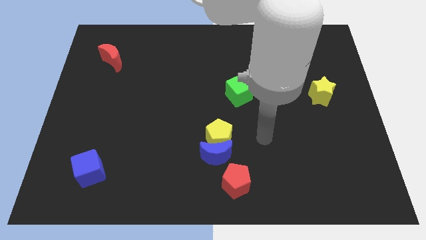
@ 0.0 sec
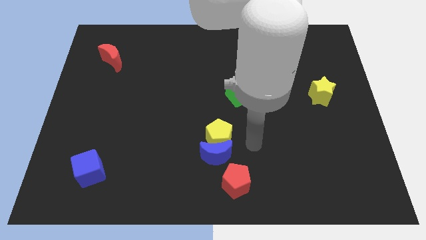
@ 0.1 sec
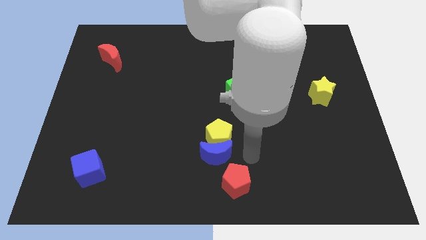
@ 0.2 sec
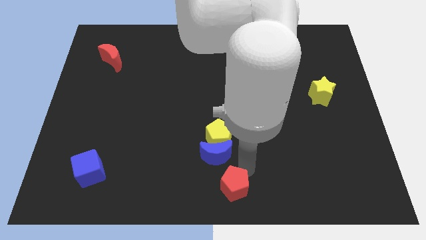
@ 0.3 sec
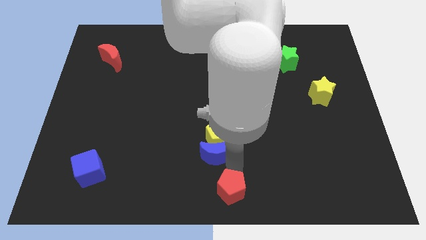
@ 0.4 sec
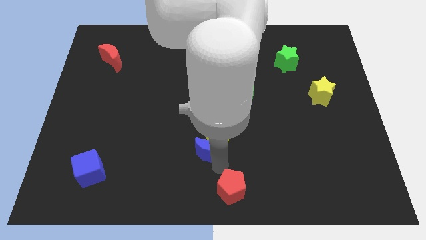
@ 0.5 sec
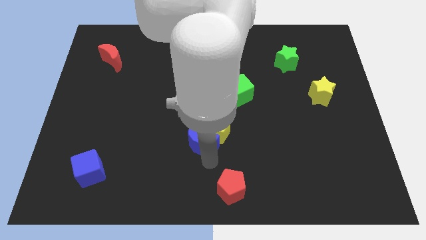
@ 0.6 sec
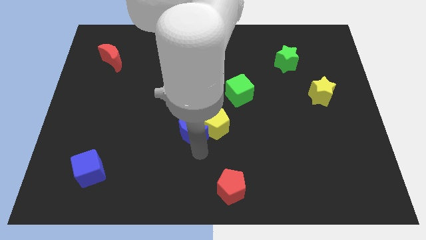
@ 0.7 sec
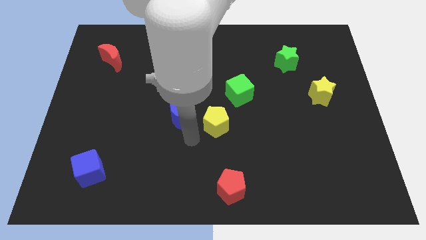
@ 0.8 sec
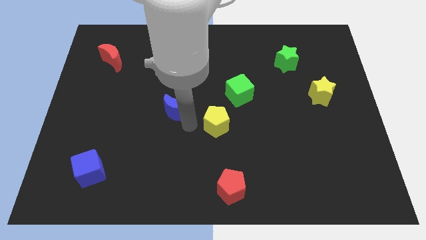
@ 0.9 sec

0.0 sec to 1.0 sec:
pull the yellow pentagon apart from the blue moon

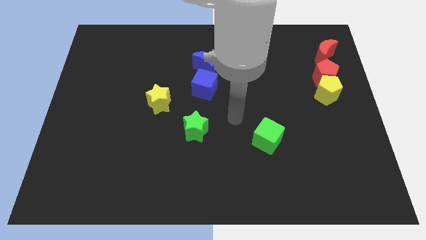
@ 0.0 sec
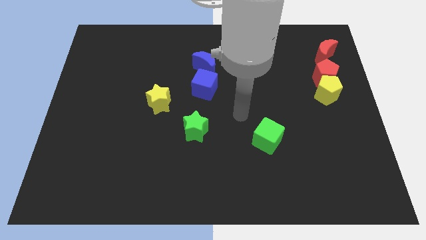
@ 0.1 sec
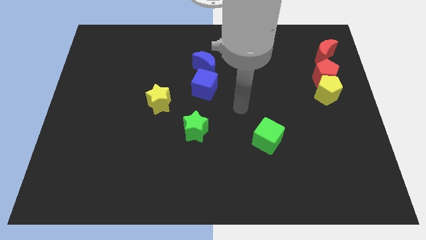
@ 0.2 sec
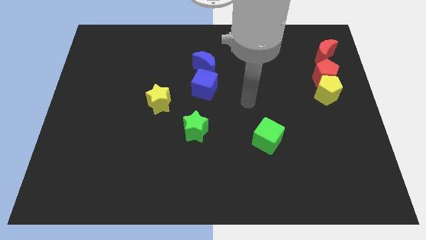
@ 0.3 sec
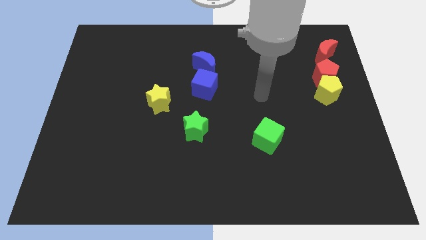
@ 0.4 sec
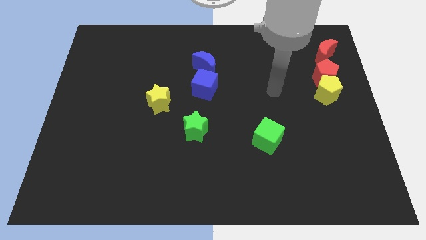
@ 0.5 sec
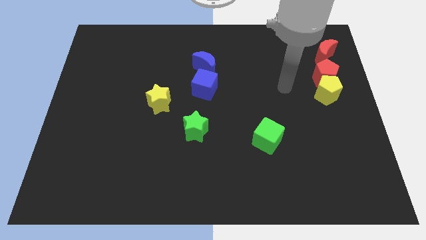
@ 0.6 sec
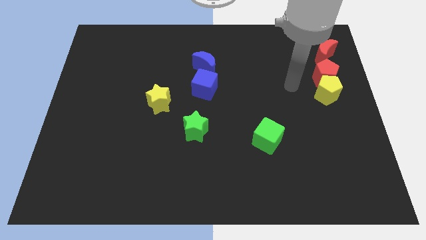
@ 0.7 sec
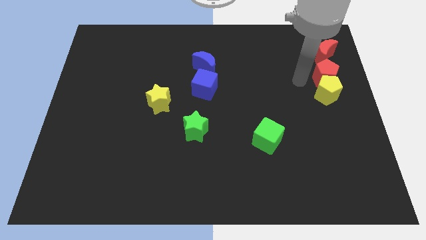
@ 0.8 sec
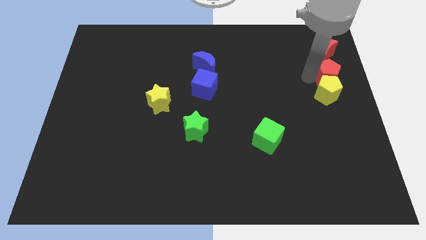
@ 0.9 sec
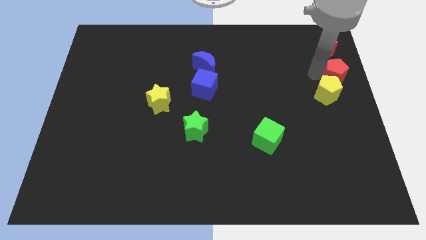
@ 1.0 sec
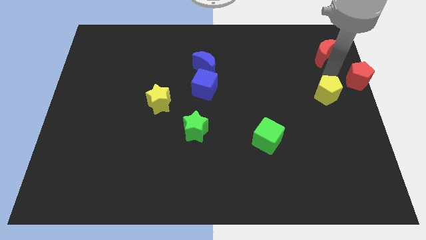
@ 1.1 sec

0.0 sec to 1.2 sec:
separate the yellow pentagon from the red pentagon

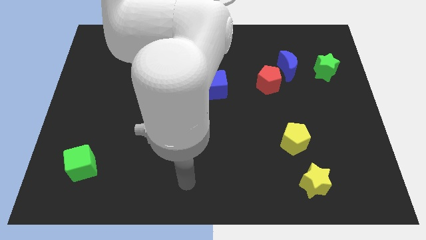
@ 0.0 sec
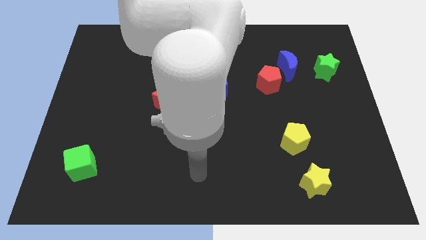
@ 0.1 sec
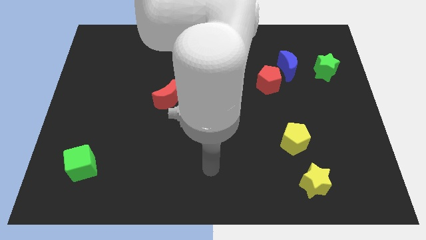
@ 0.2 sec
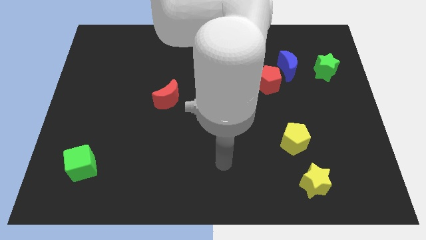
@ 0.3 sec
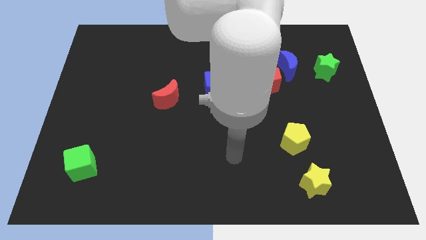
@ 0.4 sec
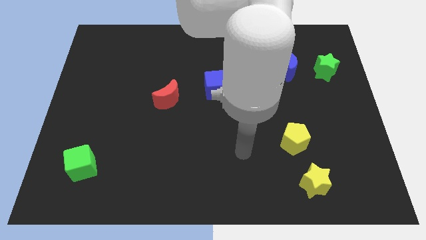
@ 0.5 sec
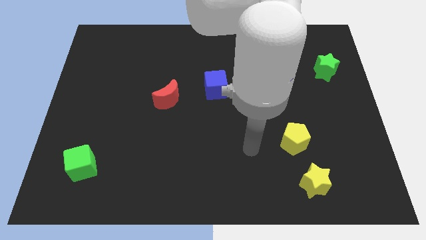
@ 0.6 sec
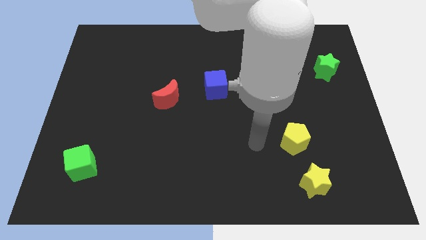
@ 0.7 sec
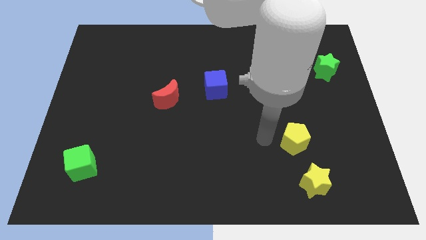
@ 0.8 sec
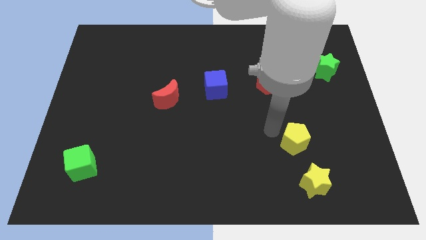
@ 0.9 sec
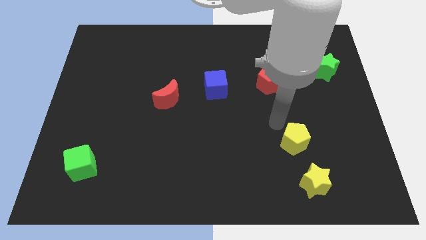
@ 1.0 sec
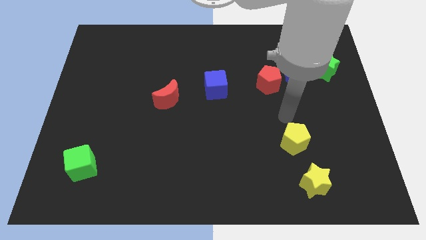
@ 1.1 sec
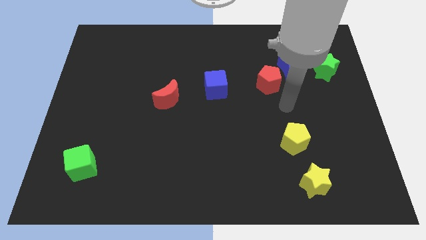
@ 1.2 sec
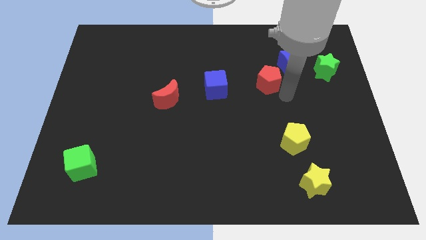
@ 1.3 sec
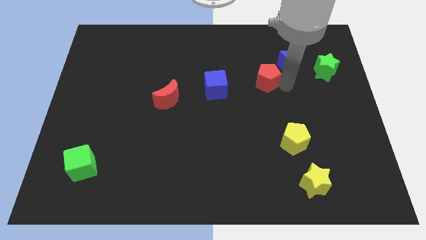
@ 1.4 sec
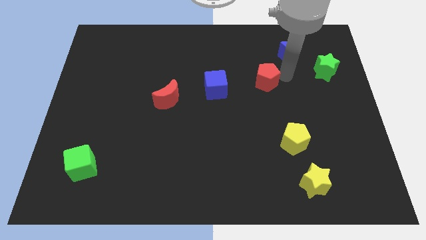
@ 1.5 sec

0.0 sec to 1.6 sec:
move the red pentagon away from the blue moon

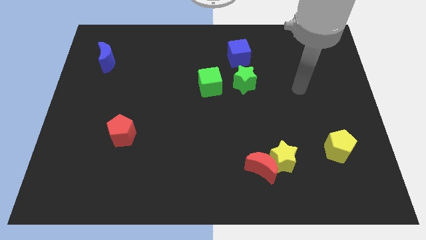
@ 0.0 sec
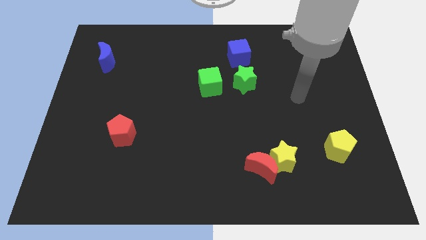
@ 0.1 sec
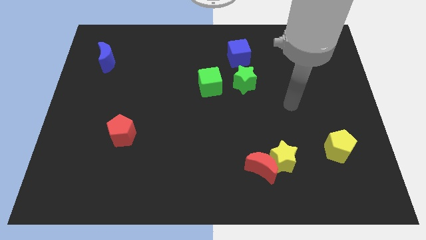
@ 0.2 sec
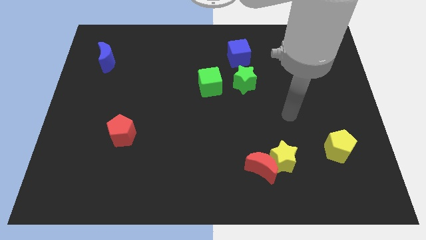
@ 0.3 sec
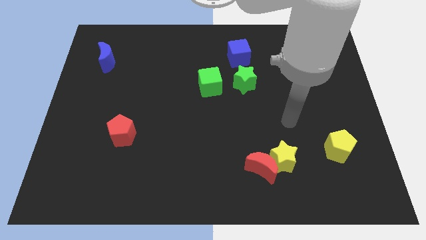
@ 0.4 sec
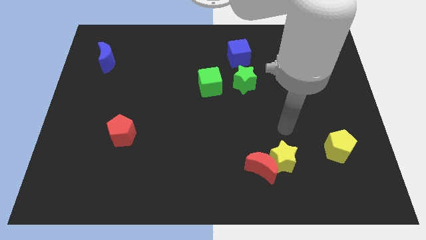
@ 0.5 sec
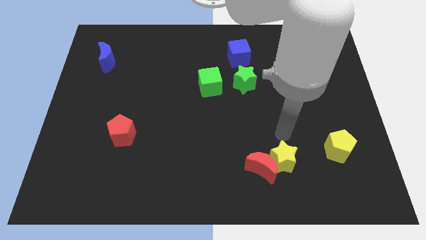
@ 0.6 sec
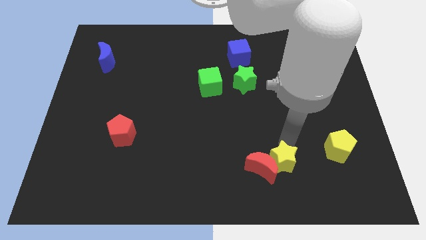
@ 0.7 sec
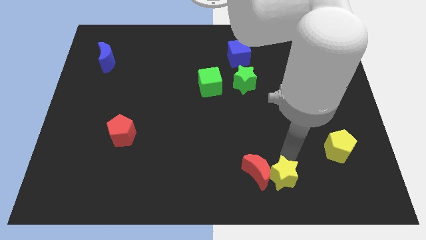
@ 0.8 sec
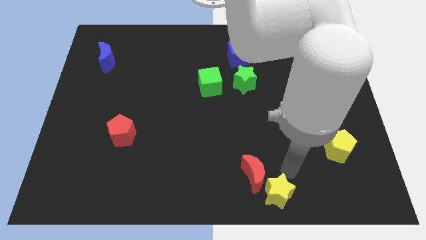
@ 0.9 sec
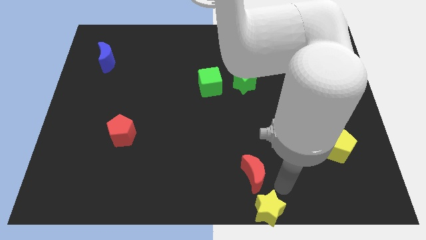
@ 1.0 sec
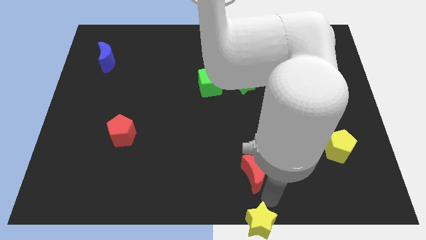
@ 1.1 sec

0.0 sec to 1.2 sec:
pull the red moon apart from the yellow star

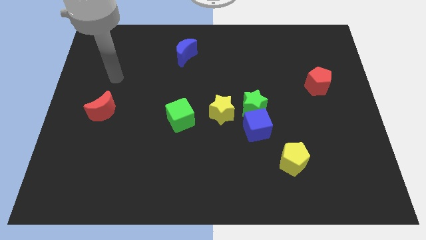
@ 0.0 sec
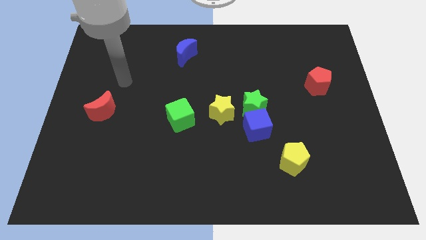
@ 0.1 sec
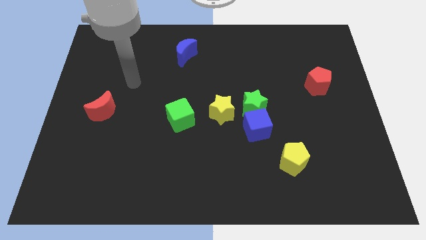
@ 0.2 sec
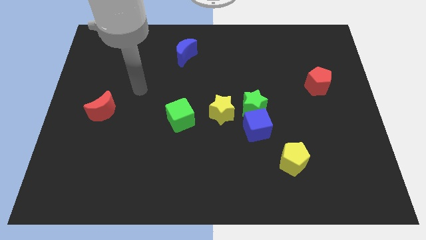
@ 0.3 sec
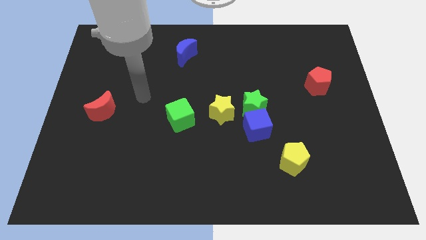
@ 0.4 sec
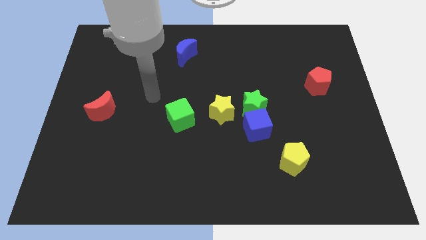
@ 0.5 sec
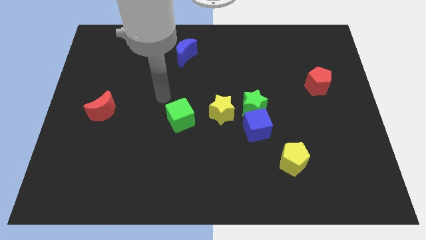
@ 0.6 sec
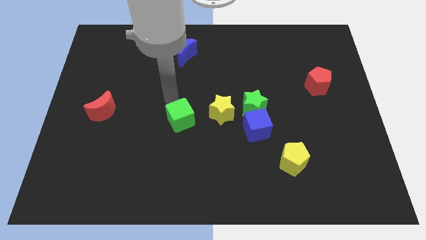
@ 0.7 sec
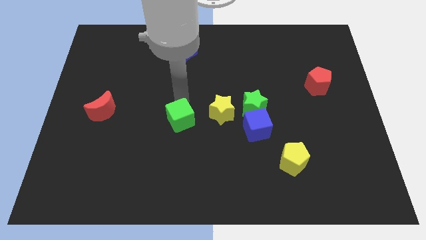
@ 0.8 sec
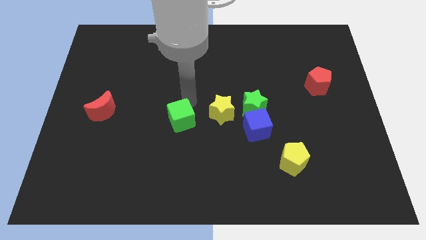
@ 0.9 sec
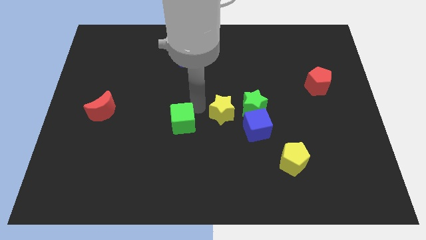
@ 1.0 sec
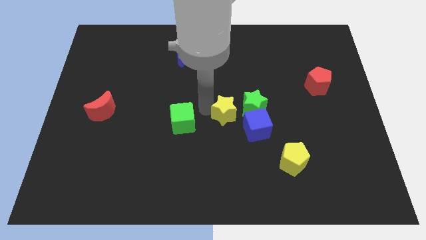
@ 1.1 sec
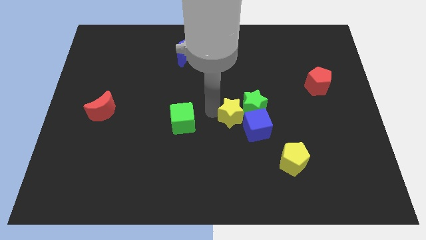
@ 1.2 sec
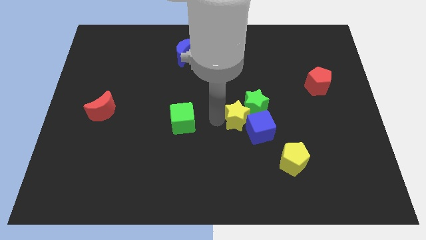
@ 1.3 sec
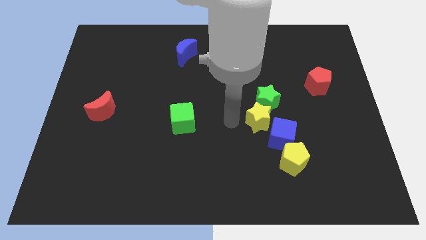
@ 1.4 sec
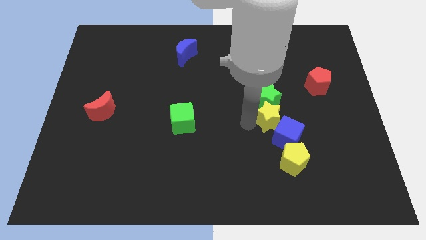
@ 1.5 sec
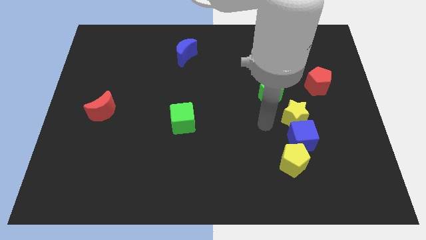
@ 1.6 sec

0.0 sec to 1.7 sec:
separate the green star from the blue cube and yellow star

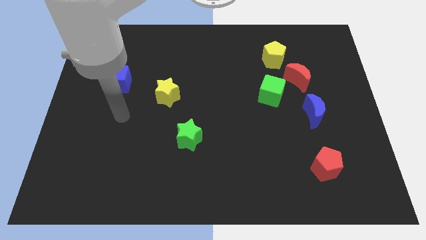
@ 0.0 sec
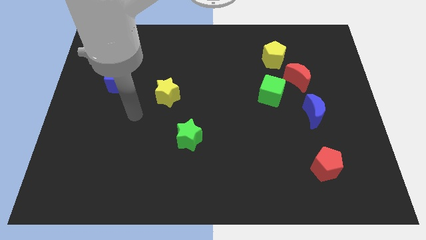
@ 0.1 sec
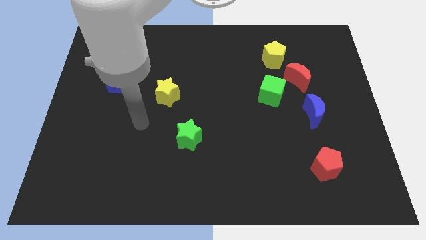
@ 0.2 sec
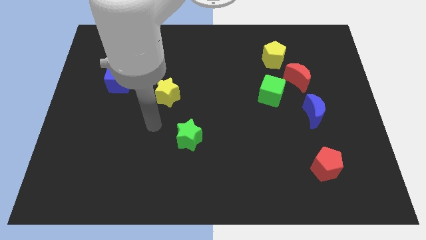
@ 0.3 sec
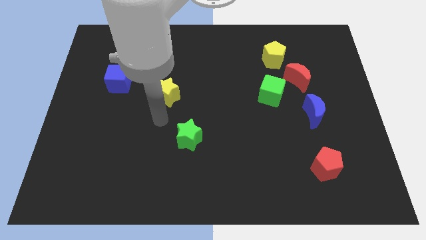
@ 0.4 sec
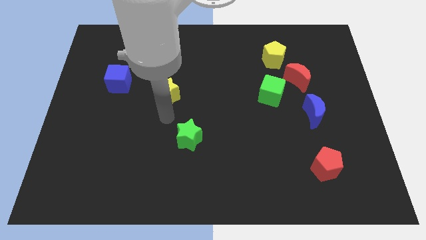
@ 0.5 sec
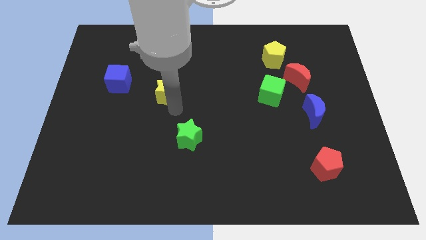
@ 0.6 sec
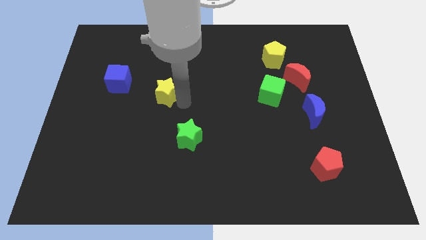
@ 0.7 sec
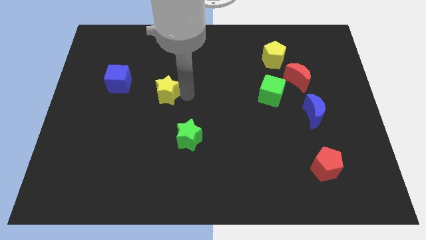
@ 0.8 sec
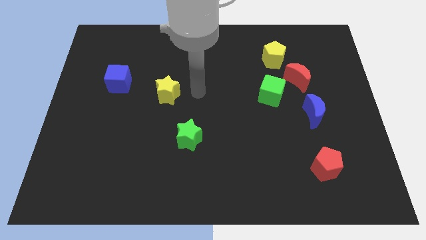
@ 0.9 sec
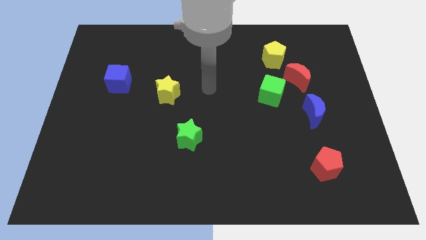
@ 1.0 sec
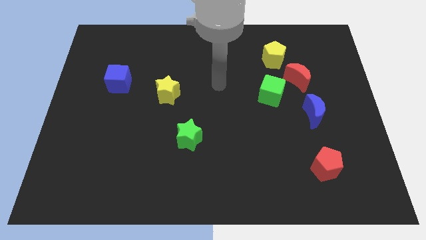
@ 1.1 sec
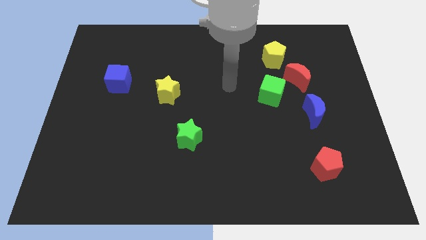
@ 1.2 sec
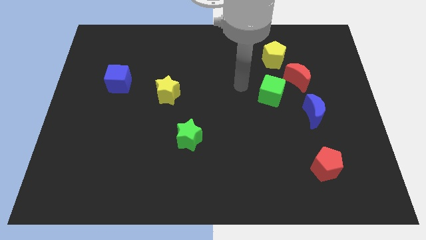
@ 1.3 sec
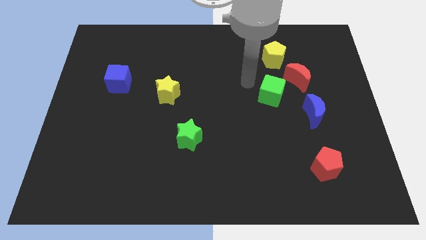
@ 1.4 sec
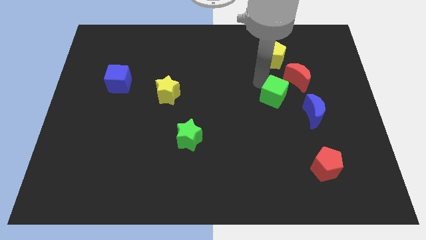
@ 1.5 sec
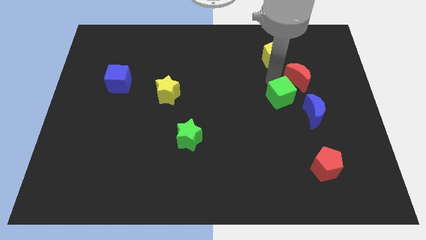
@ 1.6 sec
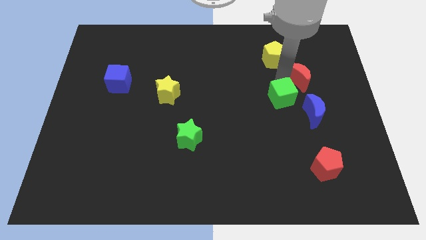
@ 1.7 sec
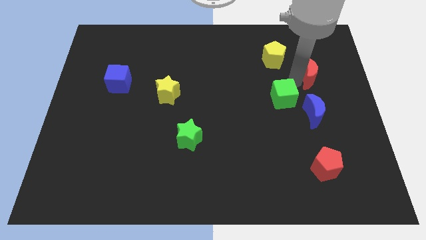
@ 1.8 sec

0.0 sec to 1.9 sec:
move the green cube away from the red moon

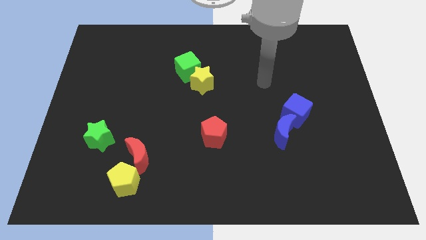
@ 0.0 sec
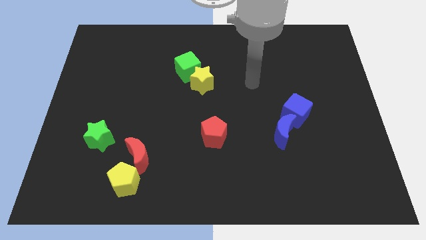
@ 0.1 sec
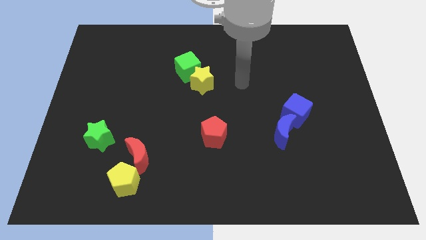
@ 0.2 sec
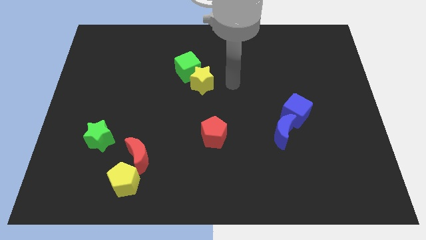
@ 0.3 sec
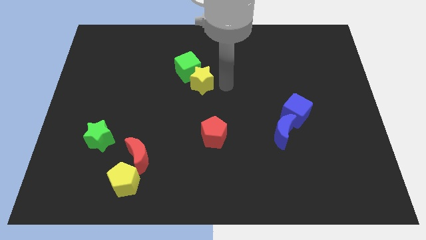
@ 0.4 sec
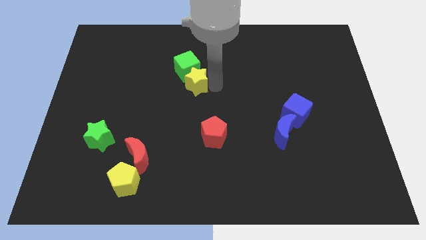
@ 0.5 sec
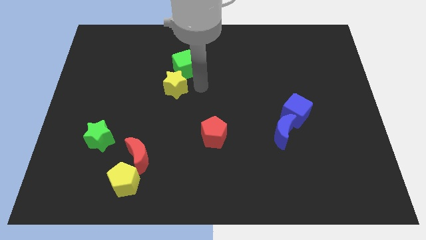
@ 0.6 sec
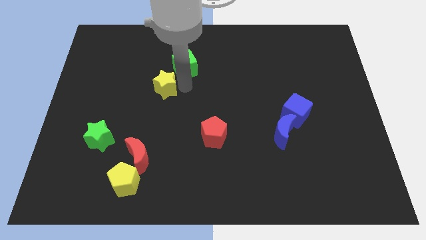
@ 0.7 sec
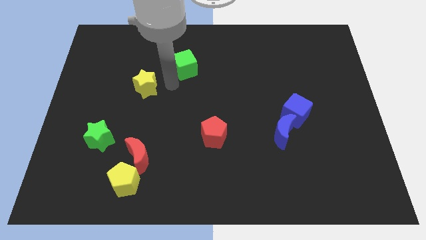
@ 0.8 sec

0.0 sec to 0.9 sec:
separate the green cube from the yellow star
